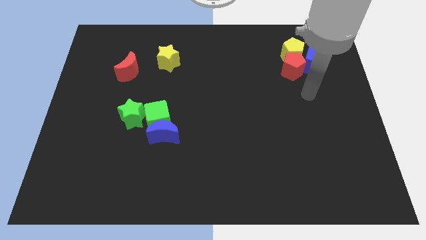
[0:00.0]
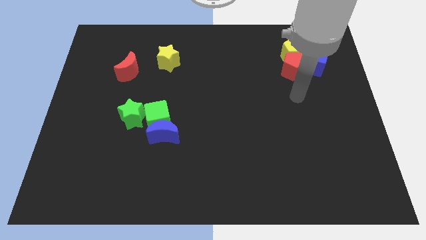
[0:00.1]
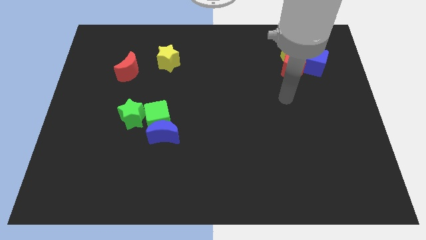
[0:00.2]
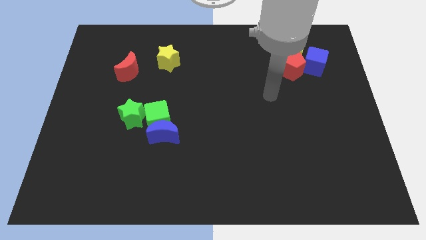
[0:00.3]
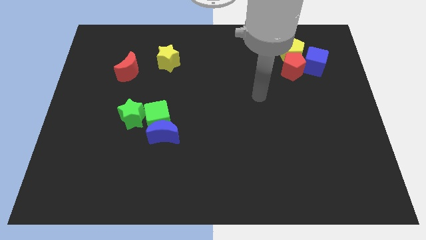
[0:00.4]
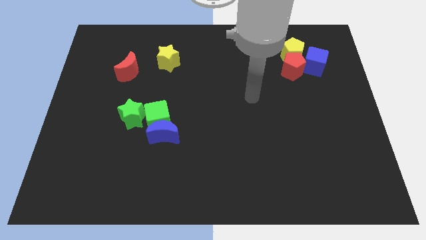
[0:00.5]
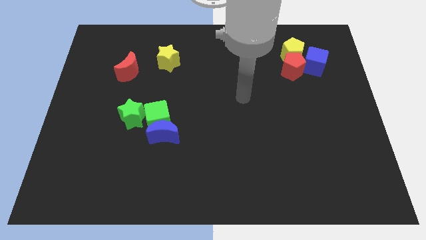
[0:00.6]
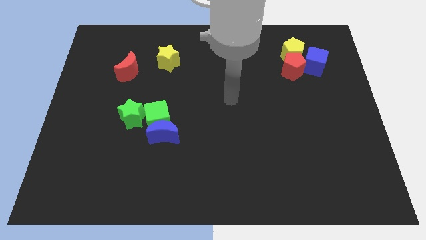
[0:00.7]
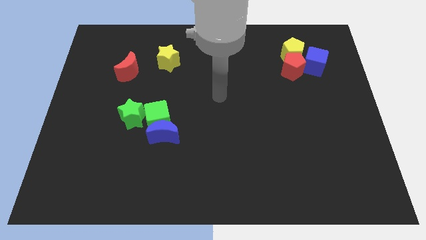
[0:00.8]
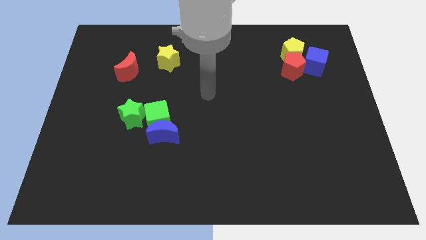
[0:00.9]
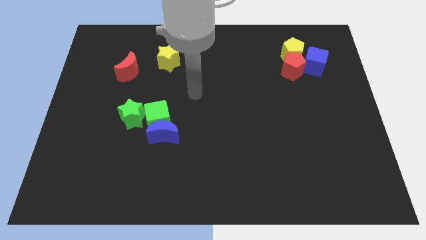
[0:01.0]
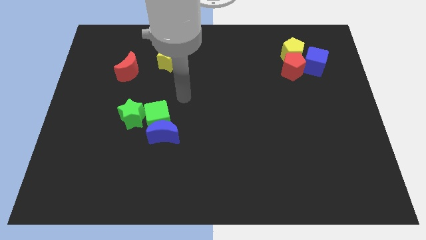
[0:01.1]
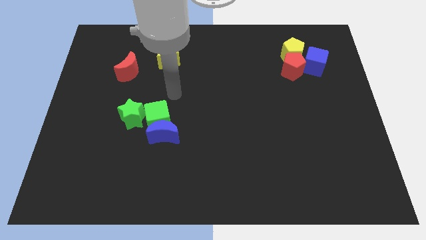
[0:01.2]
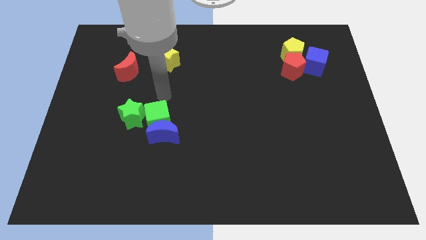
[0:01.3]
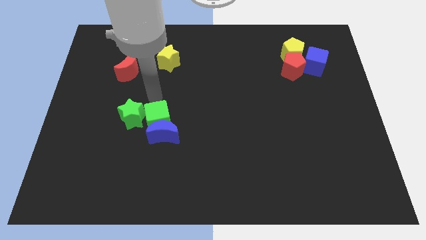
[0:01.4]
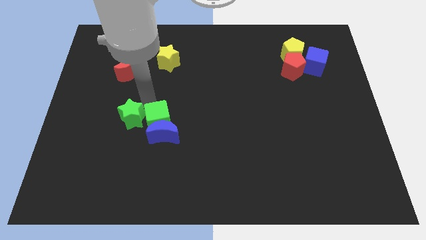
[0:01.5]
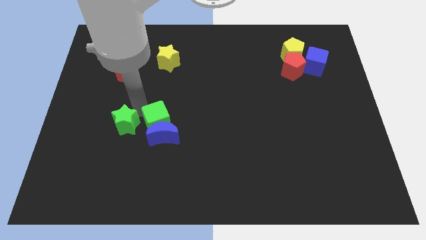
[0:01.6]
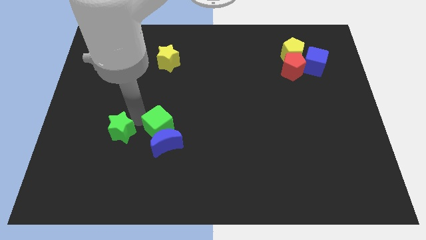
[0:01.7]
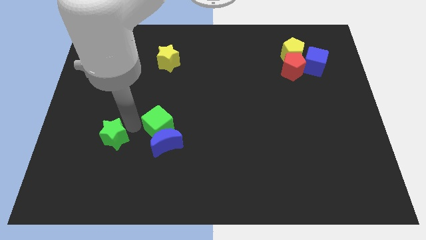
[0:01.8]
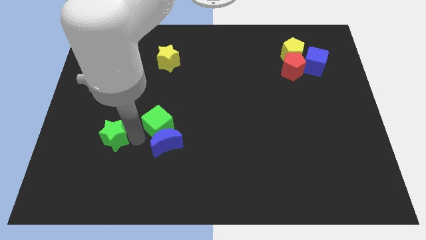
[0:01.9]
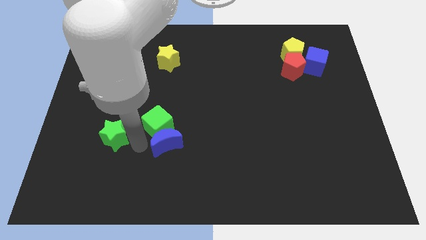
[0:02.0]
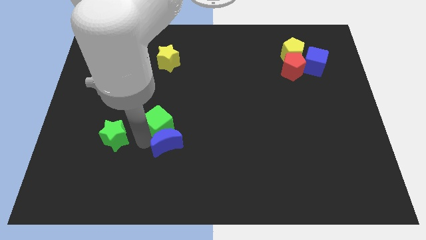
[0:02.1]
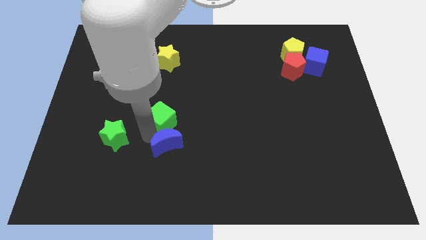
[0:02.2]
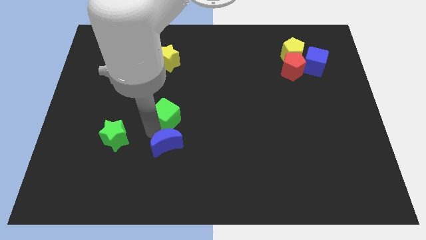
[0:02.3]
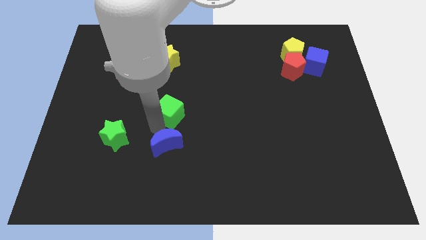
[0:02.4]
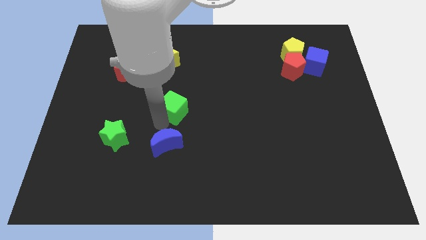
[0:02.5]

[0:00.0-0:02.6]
move the green cube away from the blue moon and green star

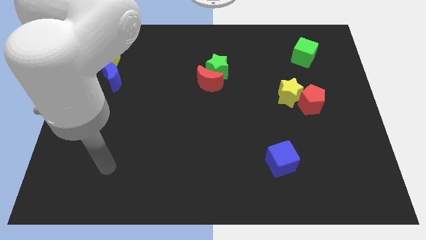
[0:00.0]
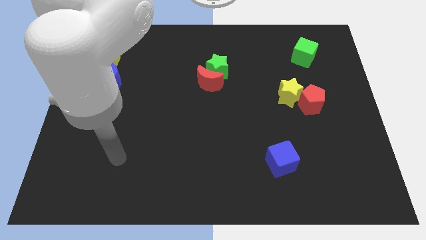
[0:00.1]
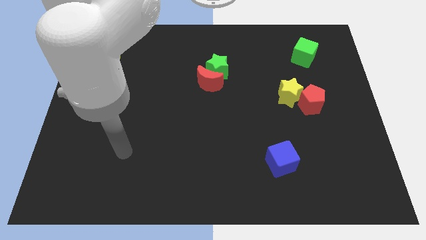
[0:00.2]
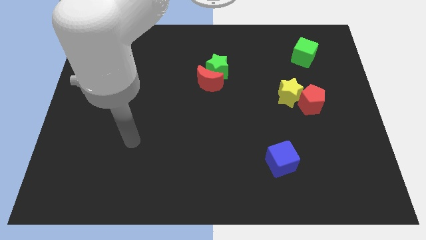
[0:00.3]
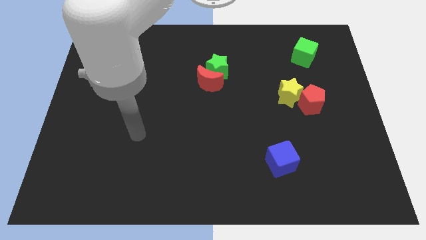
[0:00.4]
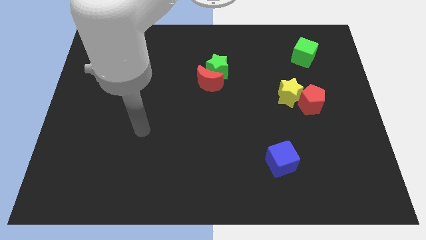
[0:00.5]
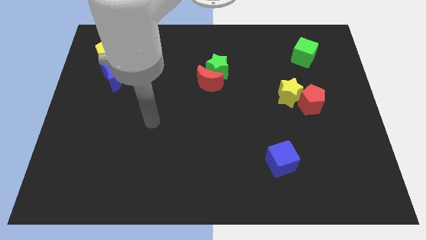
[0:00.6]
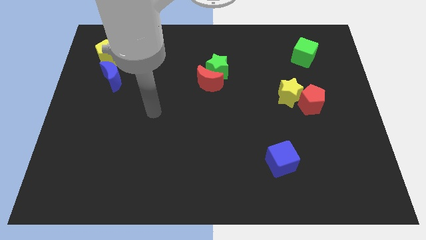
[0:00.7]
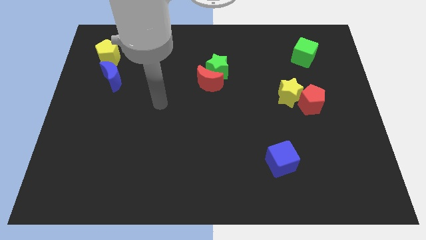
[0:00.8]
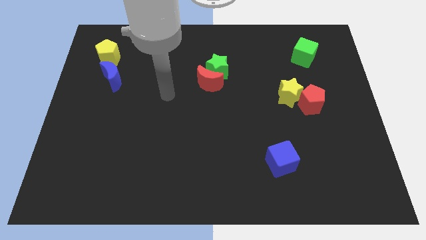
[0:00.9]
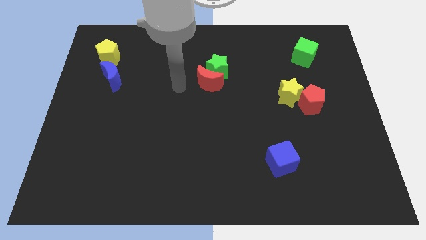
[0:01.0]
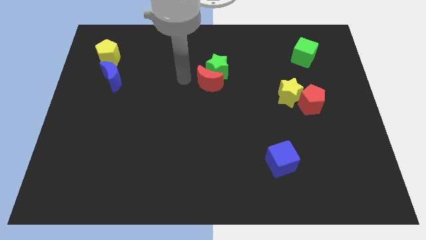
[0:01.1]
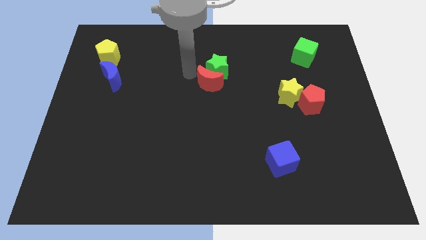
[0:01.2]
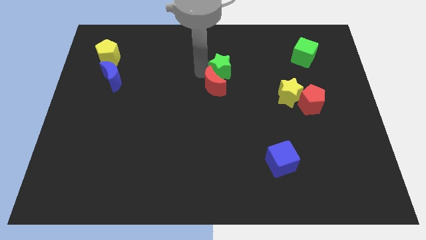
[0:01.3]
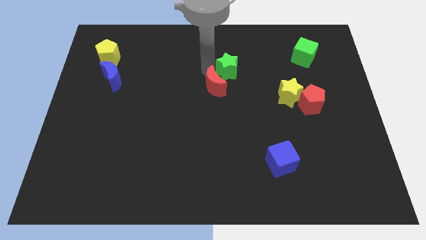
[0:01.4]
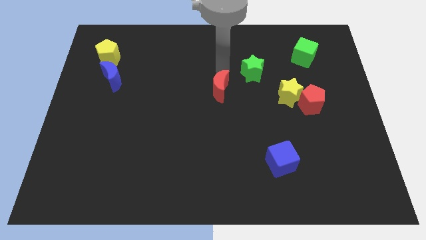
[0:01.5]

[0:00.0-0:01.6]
pull the red moon apart from the green star

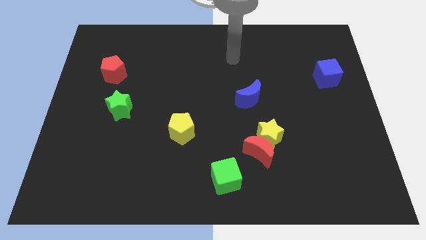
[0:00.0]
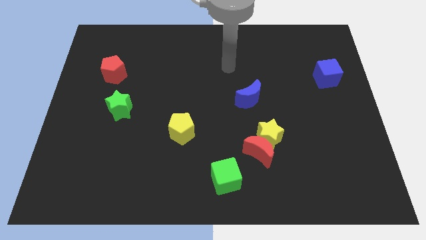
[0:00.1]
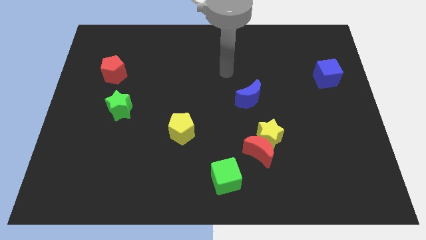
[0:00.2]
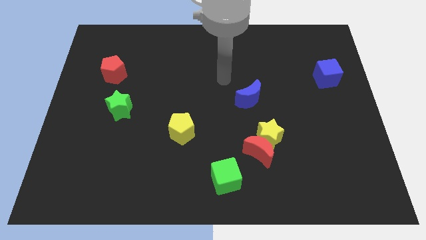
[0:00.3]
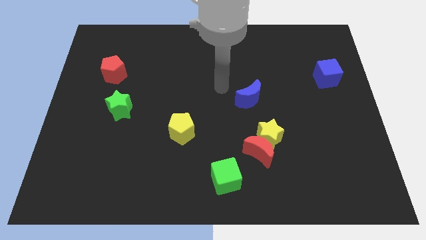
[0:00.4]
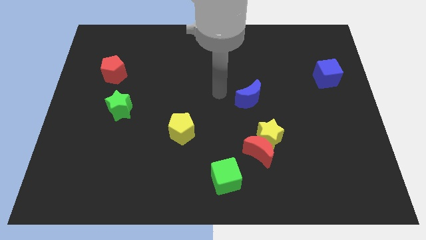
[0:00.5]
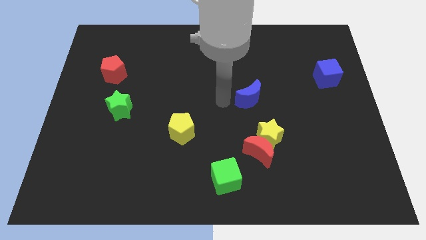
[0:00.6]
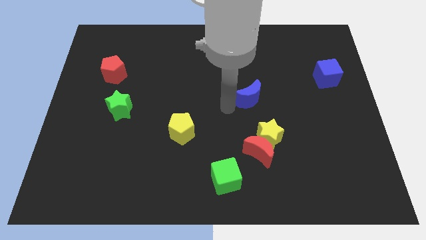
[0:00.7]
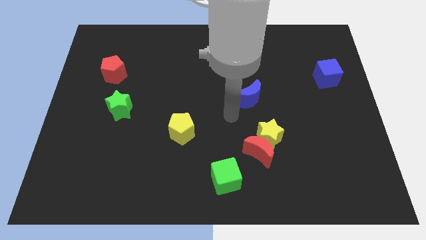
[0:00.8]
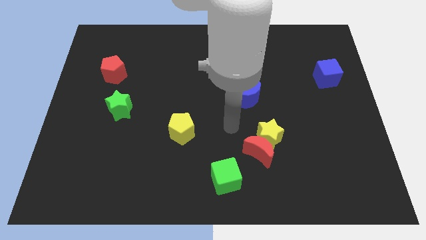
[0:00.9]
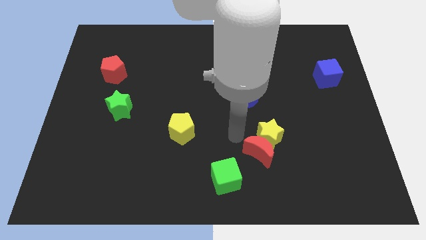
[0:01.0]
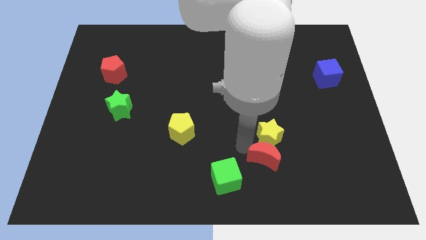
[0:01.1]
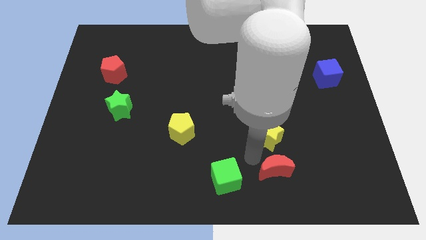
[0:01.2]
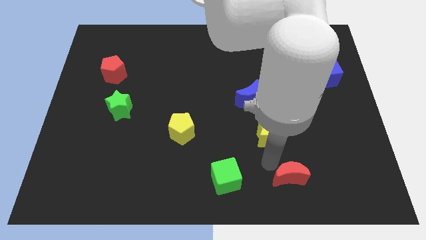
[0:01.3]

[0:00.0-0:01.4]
pull the yellow star apart from the red moon

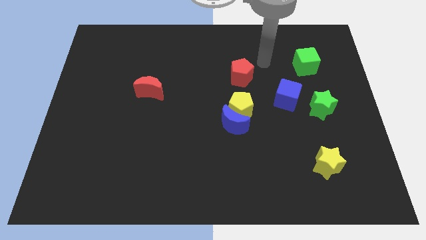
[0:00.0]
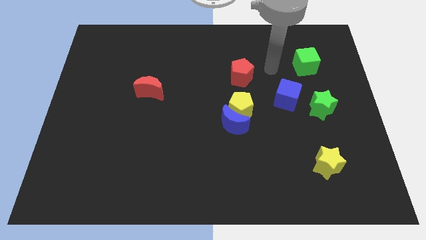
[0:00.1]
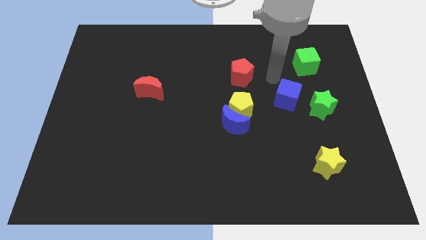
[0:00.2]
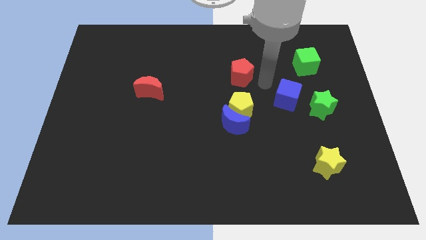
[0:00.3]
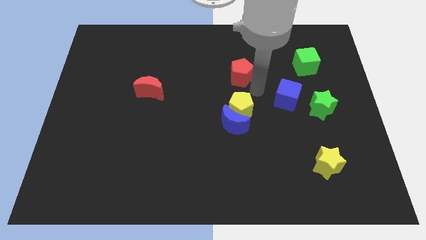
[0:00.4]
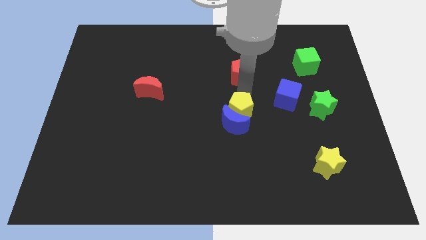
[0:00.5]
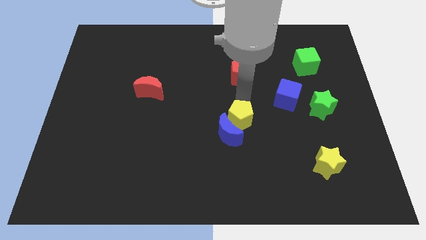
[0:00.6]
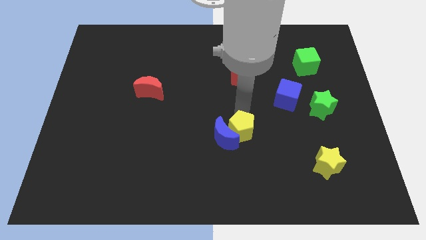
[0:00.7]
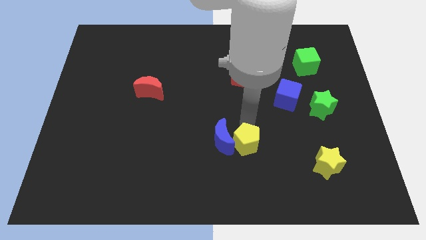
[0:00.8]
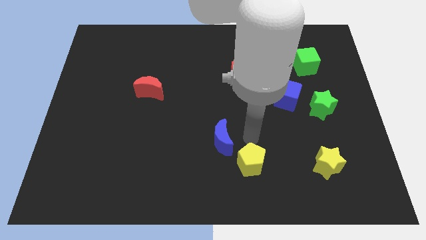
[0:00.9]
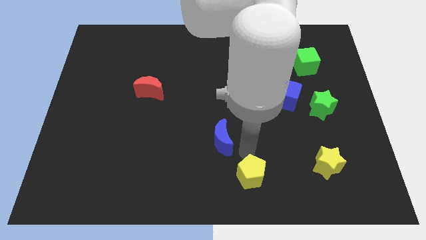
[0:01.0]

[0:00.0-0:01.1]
pull the blue moon apart from the yellow pentagon

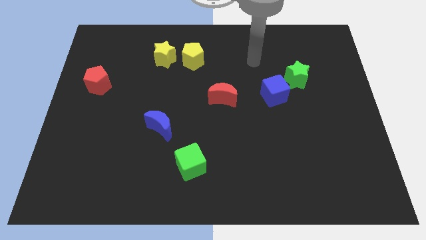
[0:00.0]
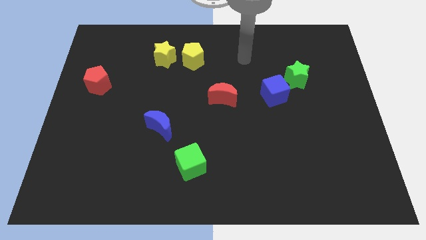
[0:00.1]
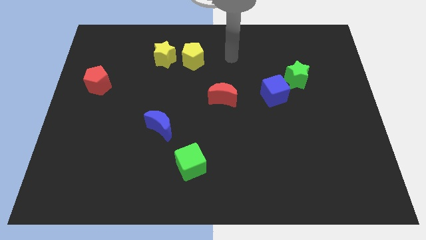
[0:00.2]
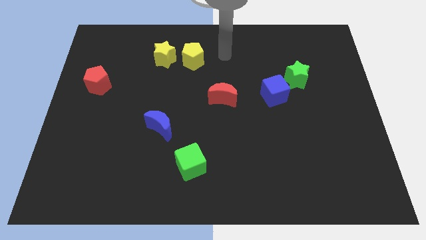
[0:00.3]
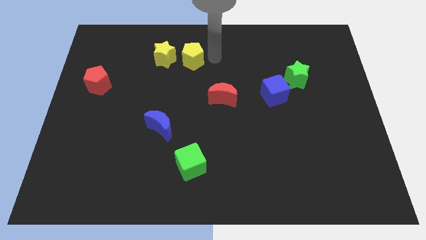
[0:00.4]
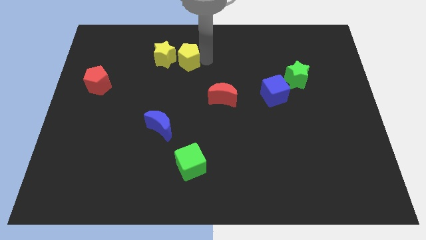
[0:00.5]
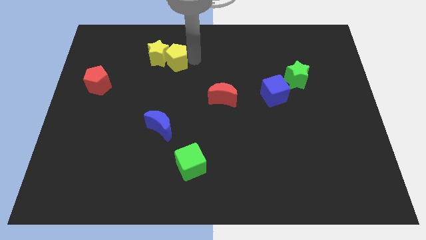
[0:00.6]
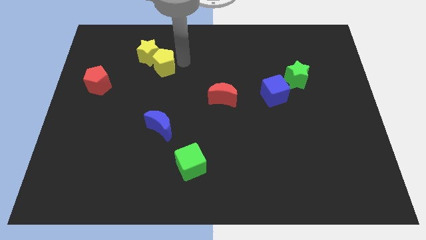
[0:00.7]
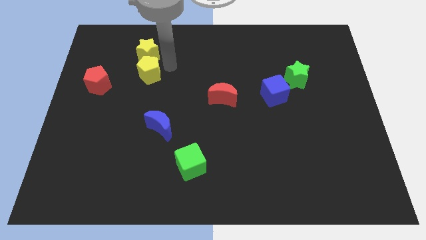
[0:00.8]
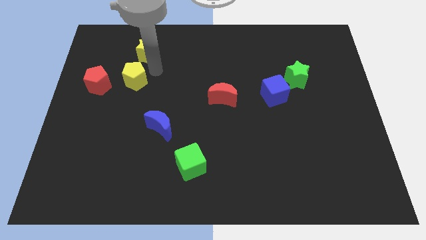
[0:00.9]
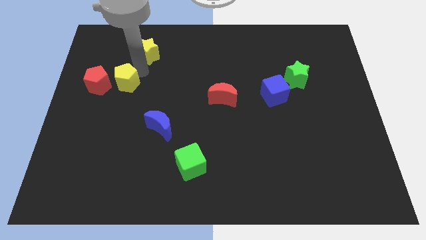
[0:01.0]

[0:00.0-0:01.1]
pull the yellow star apart from the yellow pentagon

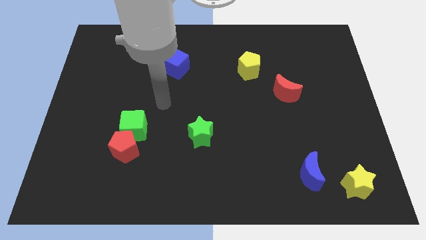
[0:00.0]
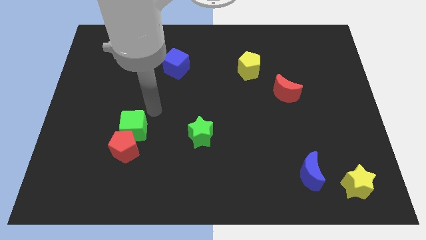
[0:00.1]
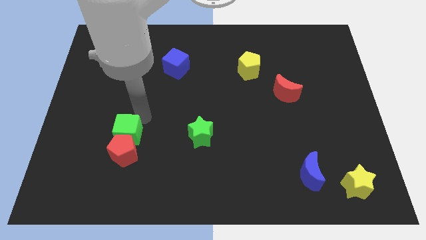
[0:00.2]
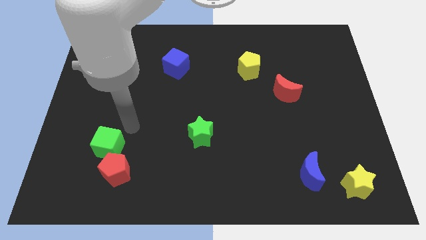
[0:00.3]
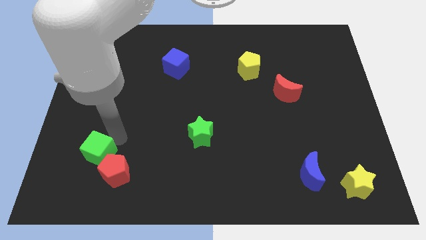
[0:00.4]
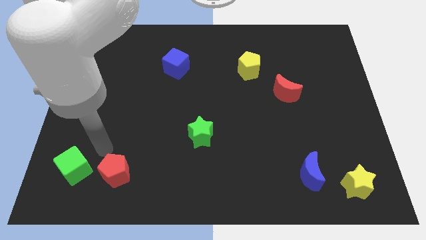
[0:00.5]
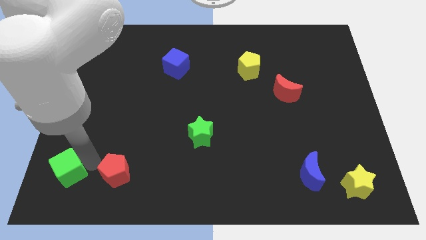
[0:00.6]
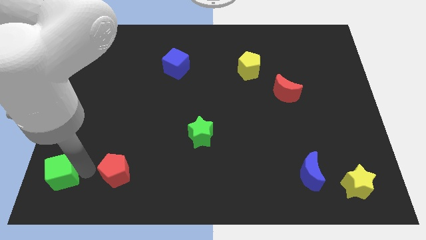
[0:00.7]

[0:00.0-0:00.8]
move the red pentagon away from the green cube

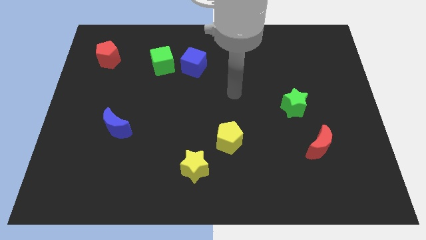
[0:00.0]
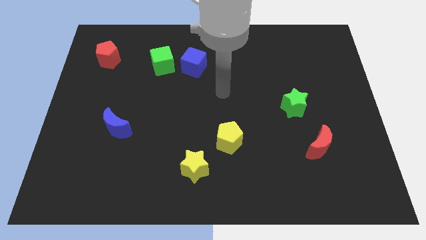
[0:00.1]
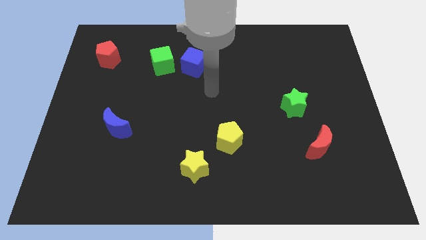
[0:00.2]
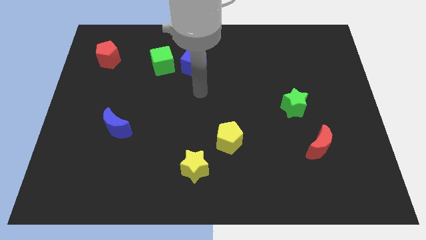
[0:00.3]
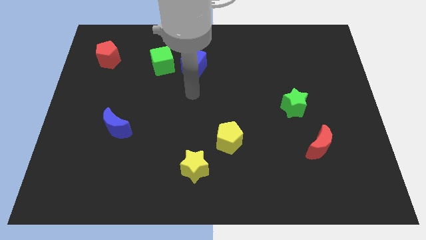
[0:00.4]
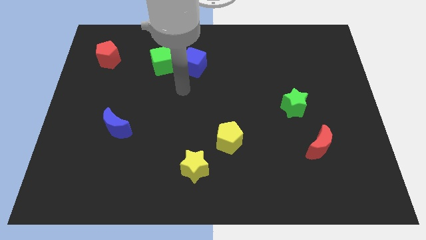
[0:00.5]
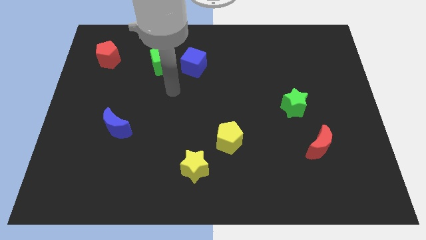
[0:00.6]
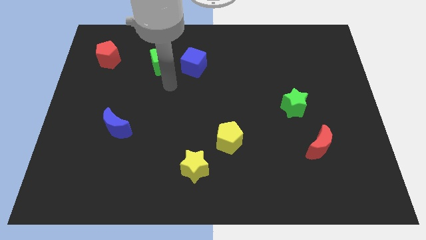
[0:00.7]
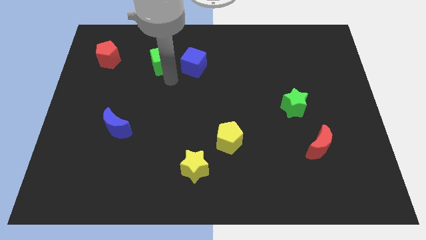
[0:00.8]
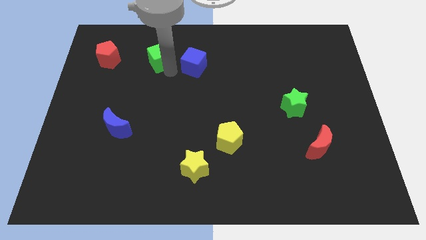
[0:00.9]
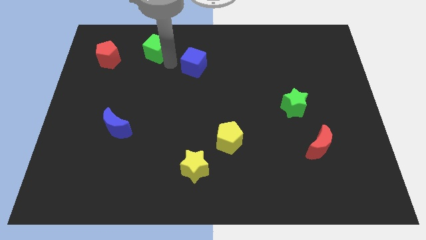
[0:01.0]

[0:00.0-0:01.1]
move the blue cube away from the green cube
